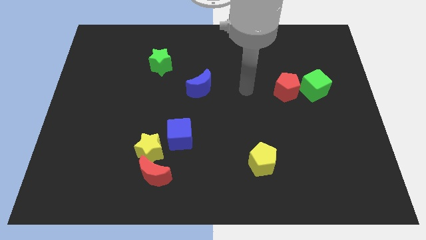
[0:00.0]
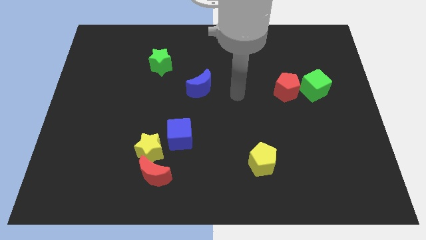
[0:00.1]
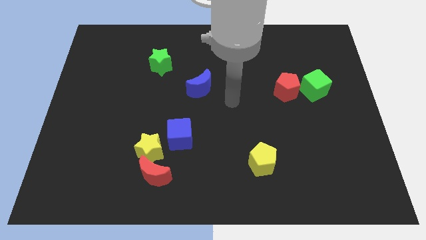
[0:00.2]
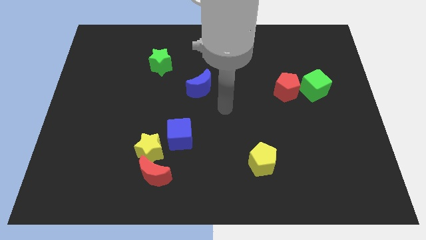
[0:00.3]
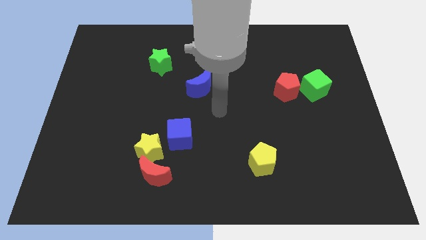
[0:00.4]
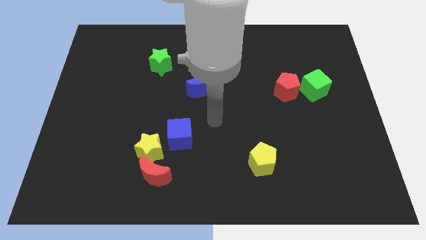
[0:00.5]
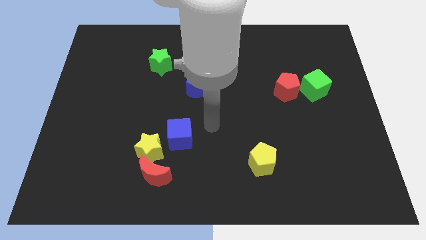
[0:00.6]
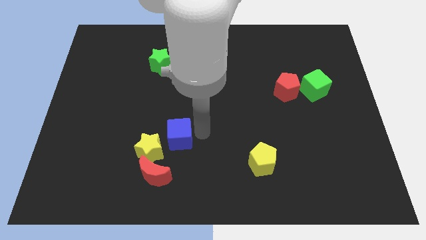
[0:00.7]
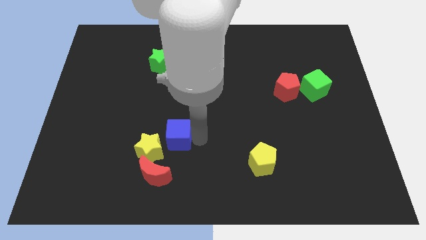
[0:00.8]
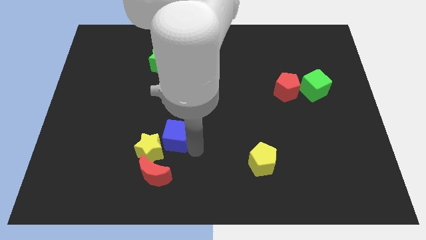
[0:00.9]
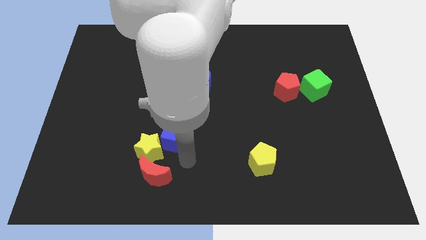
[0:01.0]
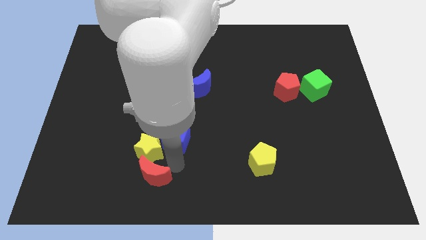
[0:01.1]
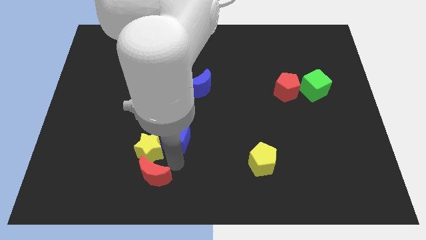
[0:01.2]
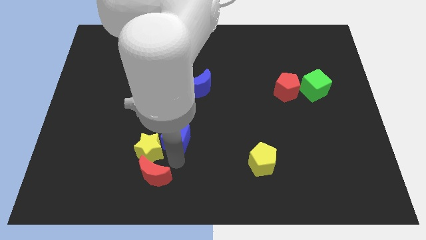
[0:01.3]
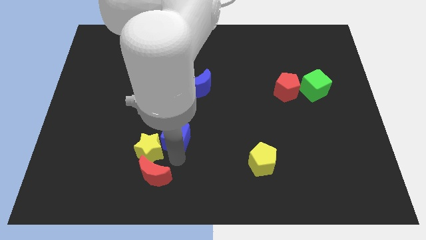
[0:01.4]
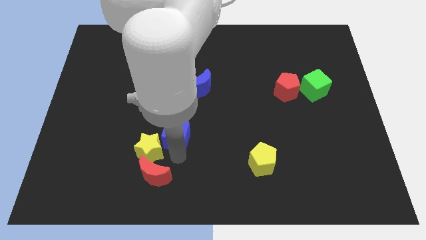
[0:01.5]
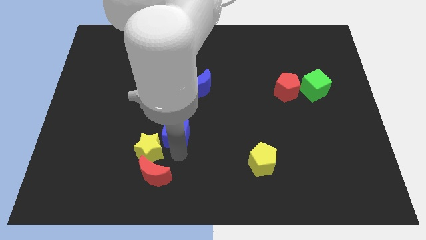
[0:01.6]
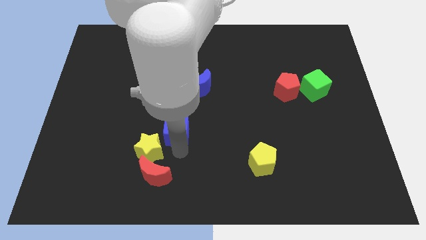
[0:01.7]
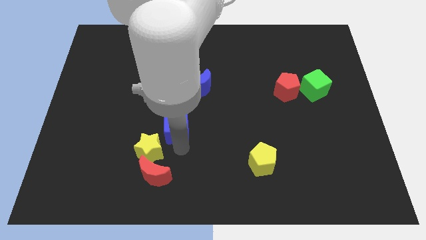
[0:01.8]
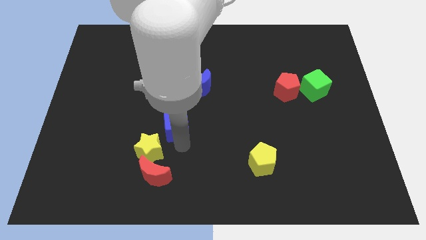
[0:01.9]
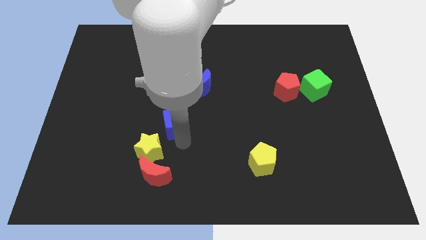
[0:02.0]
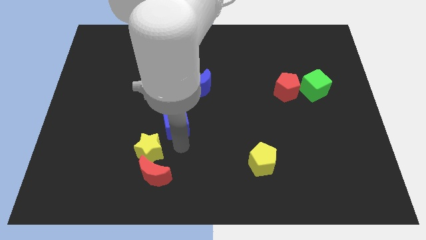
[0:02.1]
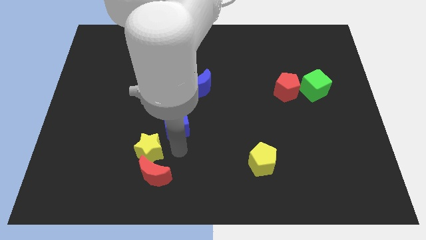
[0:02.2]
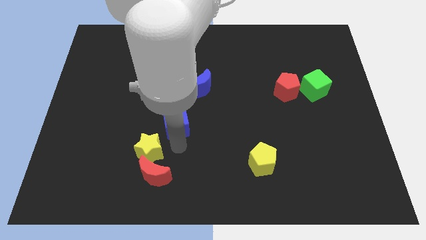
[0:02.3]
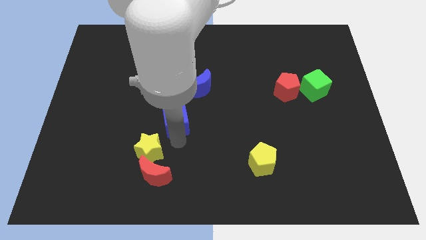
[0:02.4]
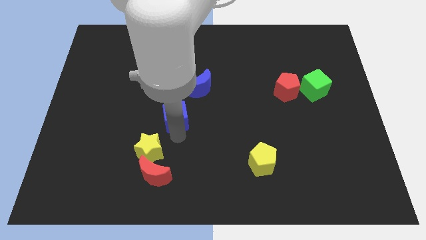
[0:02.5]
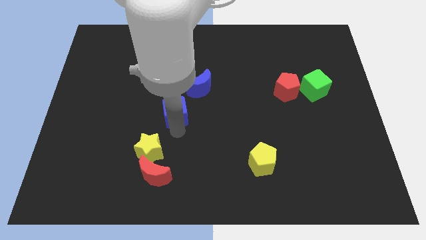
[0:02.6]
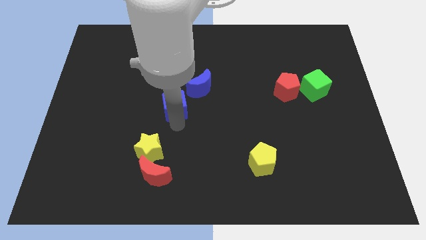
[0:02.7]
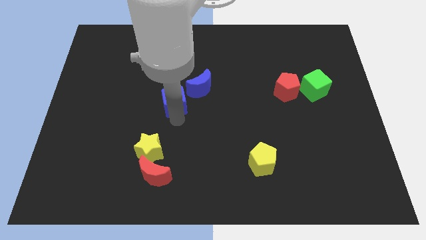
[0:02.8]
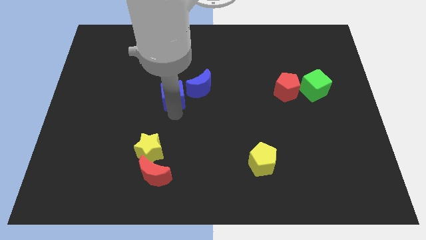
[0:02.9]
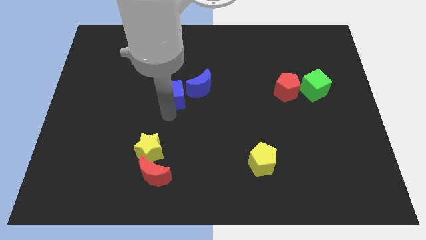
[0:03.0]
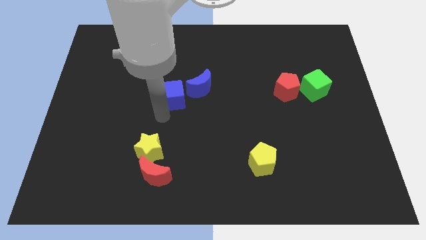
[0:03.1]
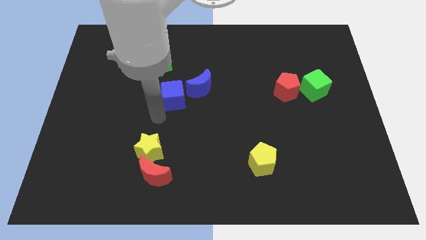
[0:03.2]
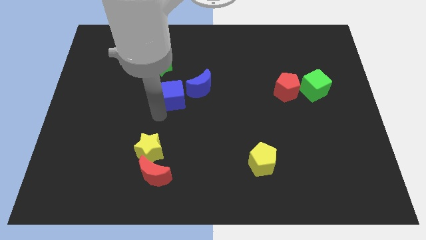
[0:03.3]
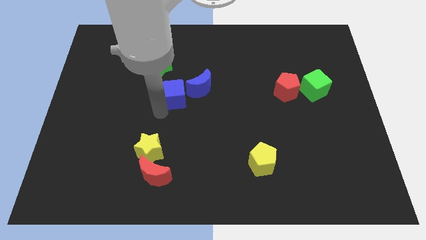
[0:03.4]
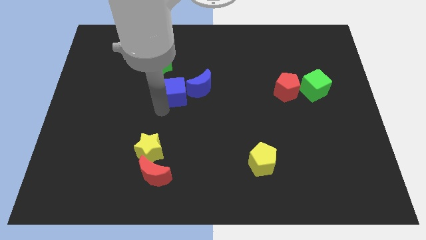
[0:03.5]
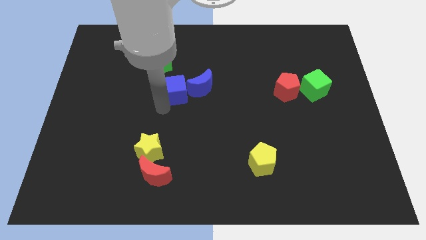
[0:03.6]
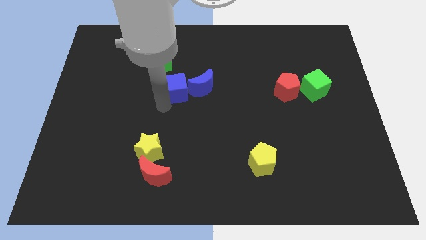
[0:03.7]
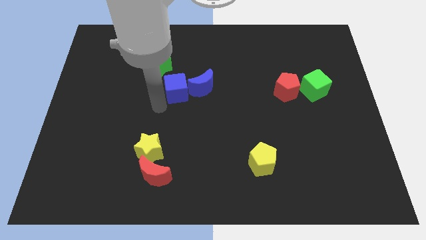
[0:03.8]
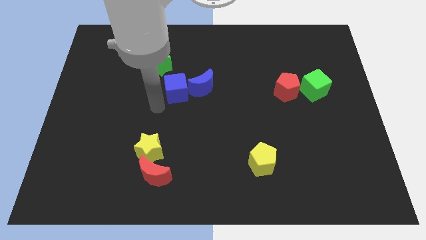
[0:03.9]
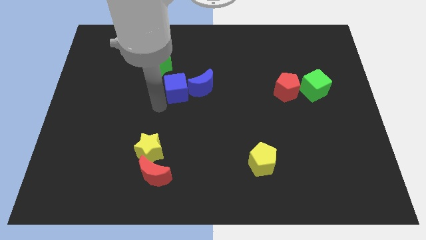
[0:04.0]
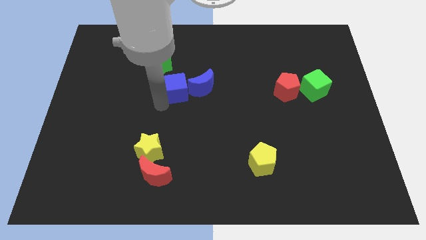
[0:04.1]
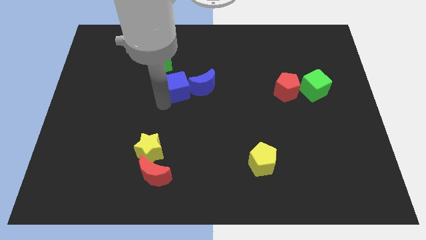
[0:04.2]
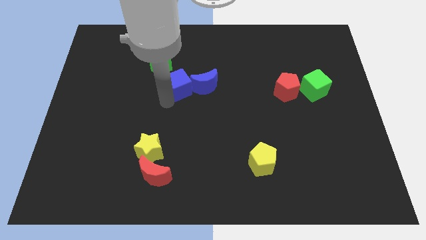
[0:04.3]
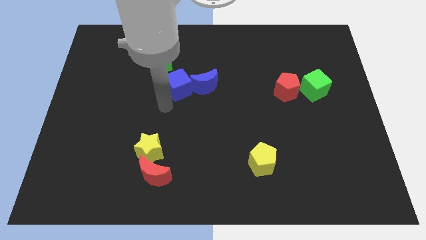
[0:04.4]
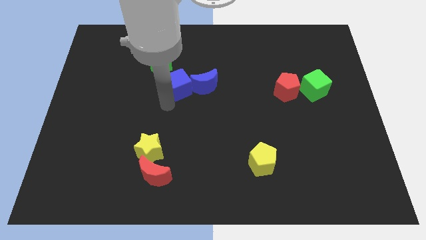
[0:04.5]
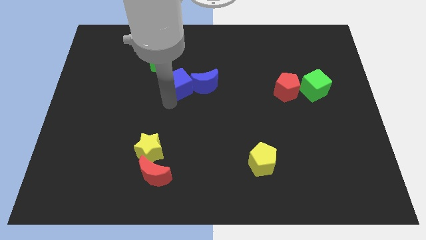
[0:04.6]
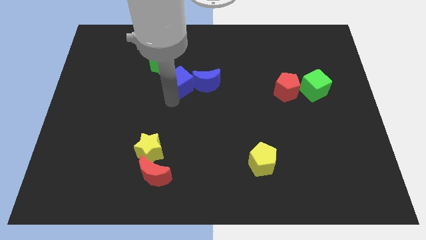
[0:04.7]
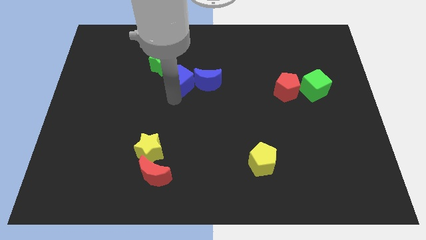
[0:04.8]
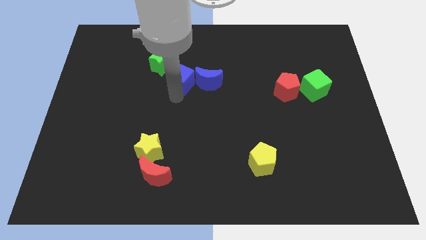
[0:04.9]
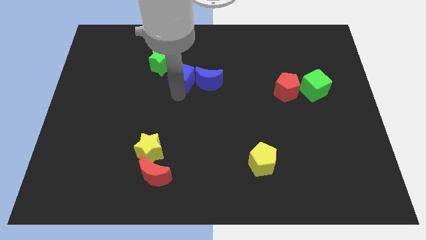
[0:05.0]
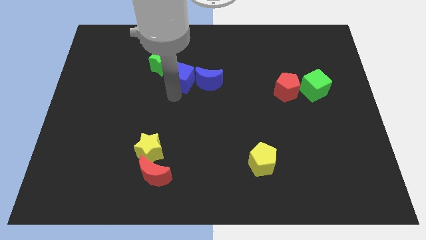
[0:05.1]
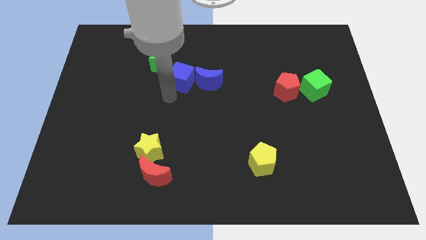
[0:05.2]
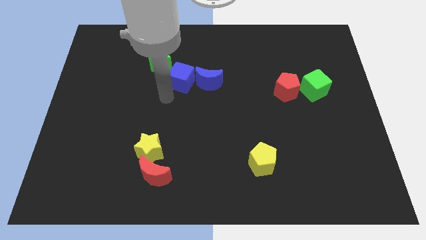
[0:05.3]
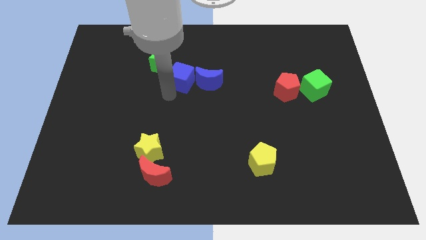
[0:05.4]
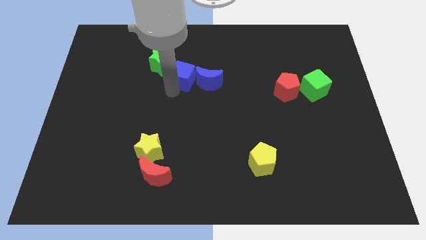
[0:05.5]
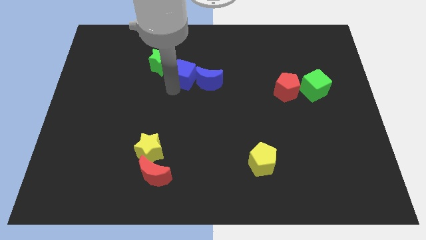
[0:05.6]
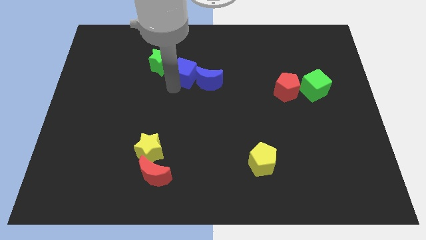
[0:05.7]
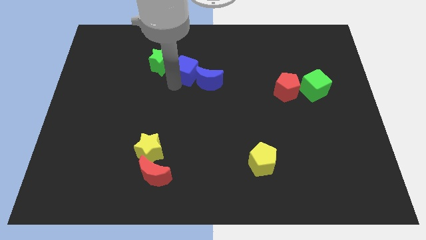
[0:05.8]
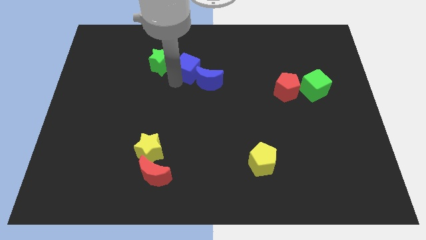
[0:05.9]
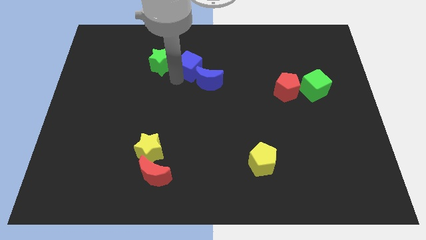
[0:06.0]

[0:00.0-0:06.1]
put the blue cube to the top side of the blue moon

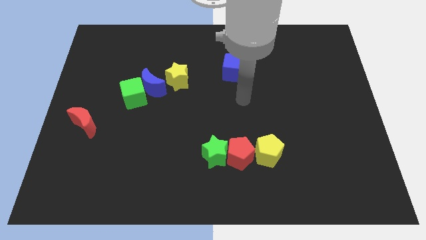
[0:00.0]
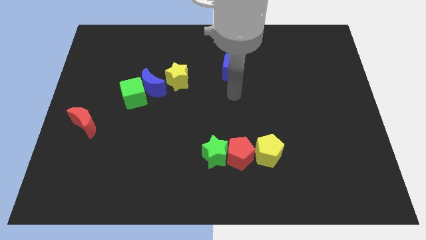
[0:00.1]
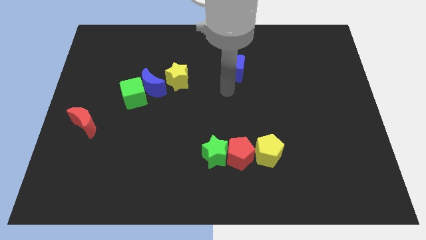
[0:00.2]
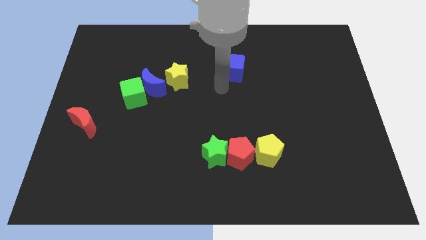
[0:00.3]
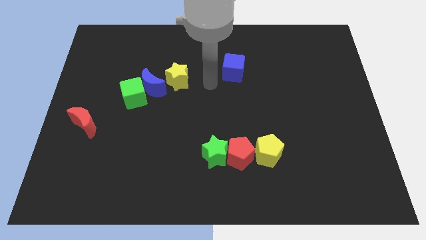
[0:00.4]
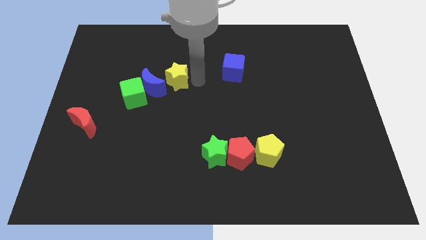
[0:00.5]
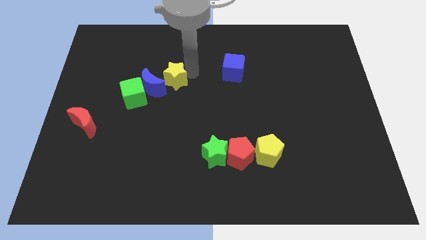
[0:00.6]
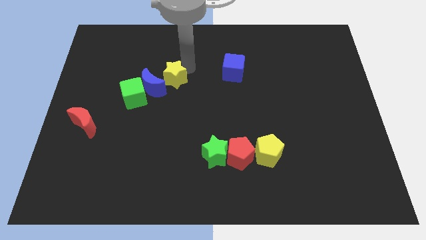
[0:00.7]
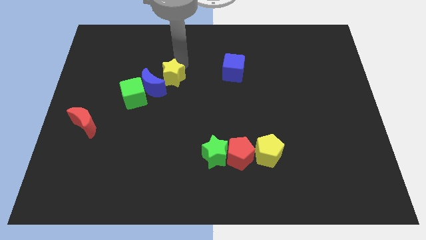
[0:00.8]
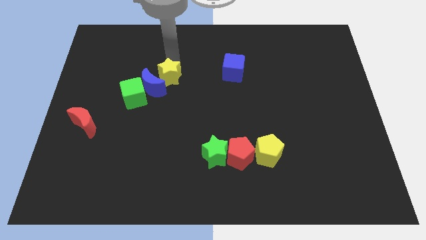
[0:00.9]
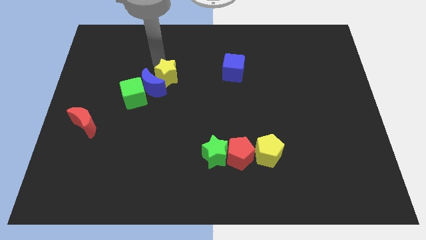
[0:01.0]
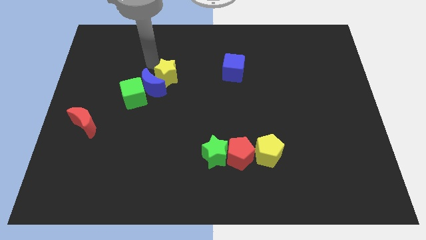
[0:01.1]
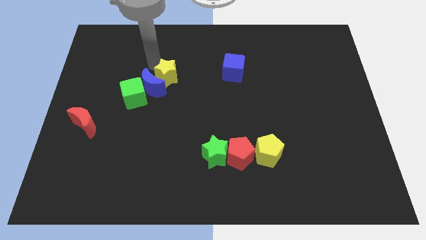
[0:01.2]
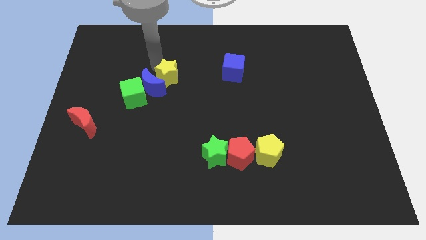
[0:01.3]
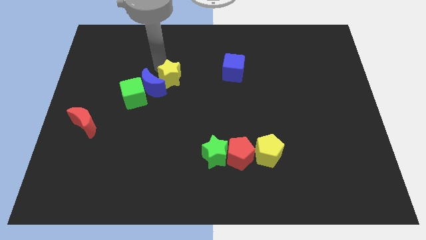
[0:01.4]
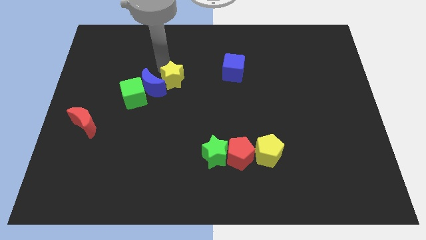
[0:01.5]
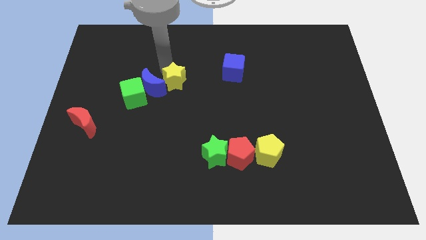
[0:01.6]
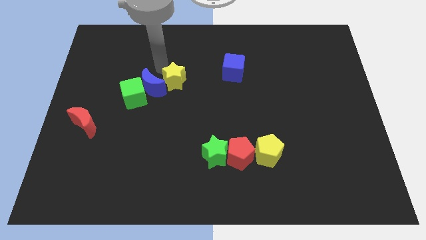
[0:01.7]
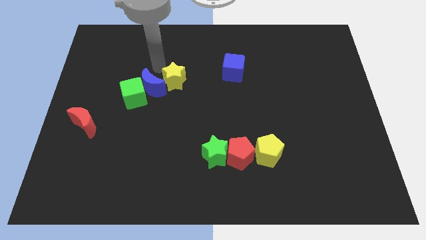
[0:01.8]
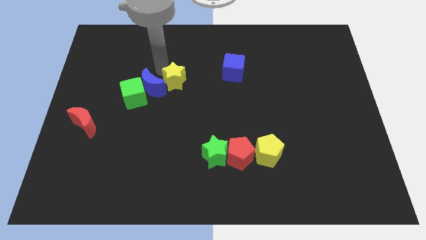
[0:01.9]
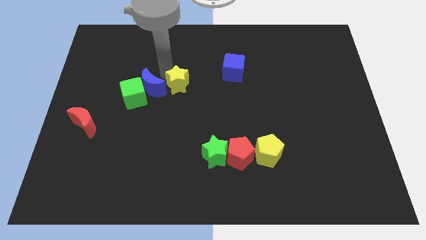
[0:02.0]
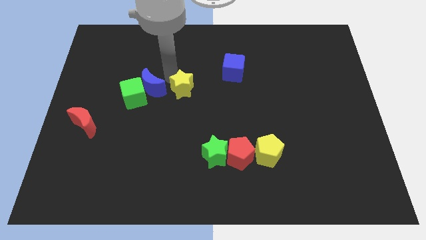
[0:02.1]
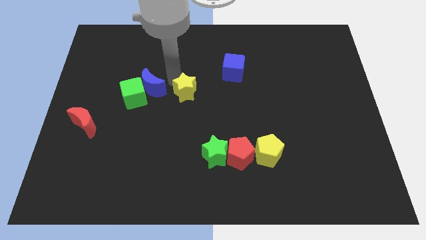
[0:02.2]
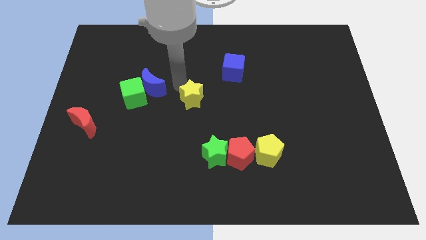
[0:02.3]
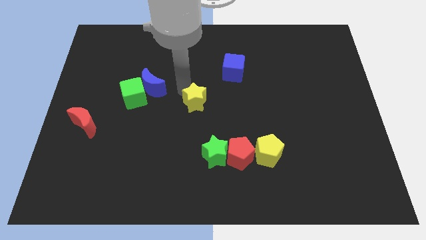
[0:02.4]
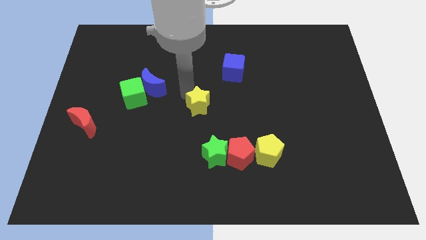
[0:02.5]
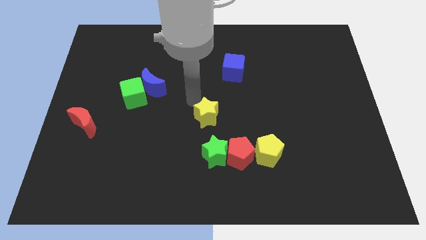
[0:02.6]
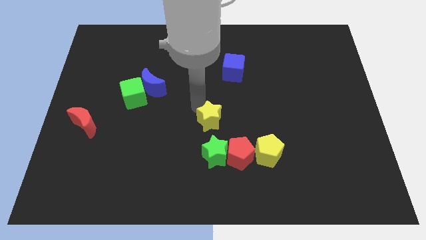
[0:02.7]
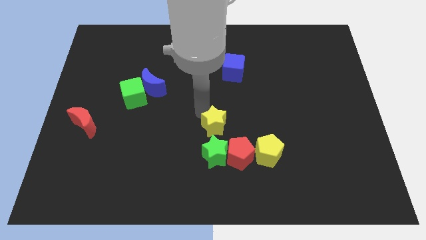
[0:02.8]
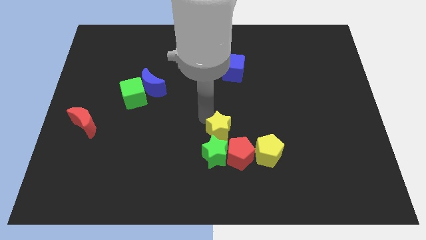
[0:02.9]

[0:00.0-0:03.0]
move the yellow star to the top right side of the green star
